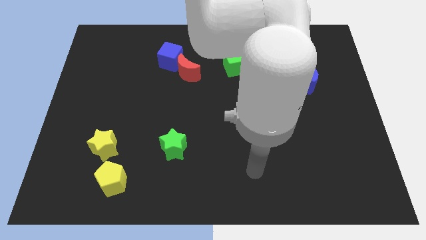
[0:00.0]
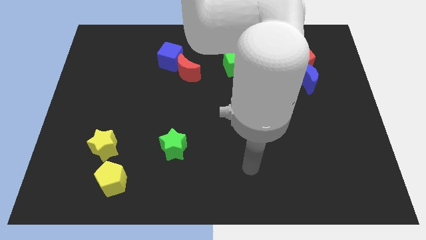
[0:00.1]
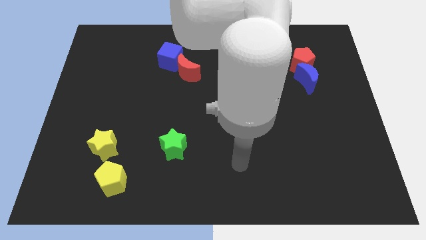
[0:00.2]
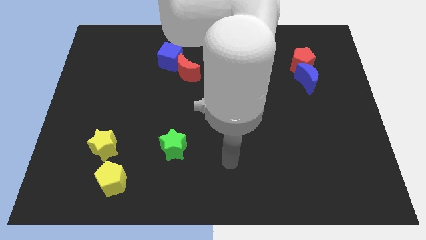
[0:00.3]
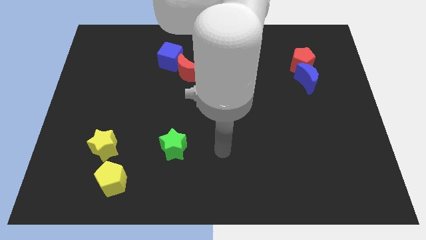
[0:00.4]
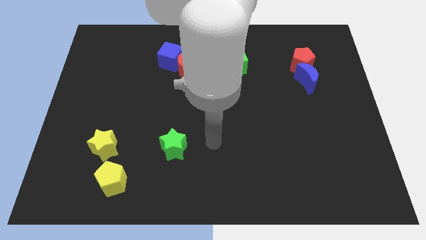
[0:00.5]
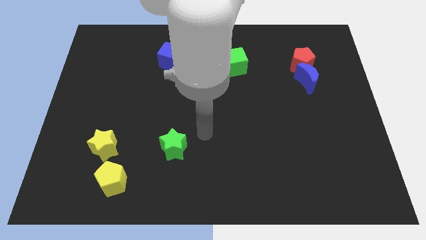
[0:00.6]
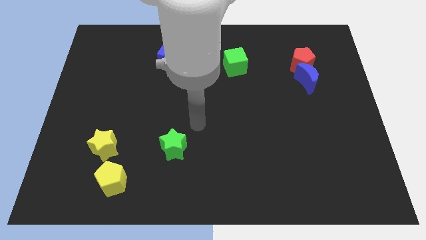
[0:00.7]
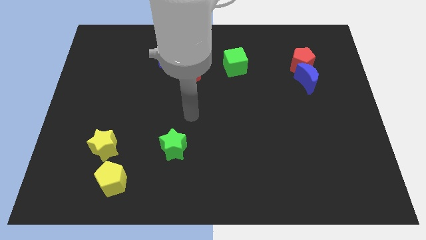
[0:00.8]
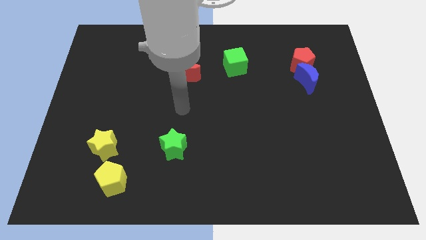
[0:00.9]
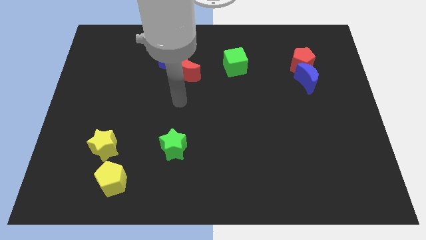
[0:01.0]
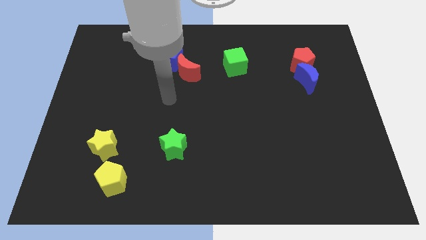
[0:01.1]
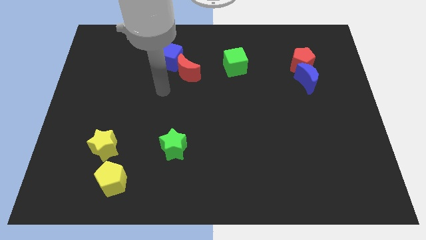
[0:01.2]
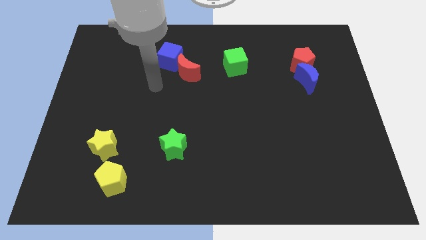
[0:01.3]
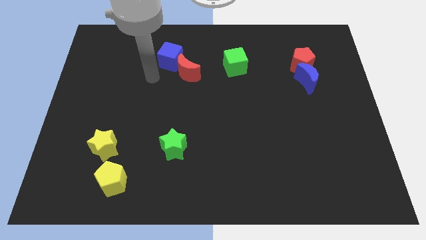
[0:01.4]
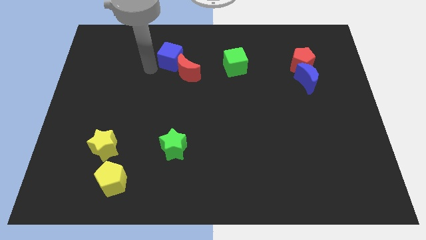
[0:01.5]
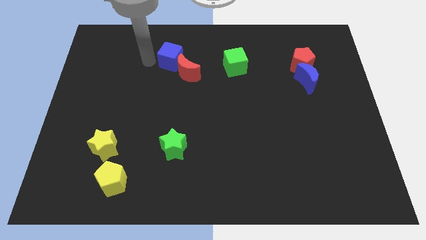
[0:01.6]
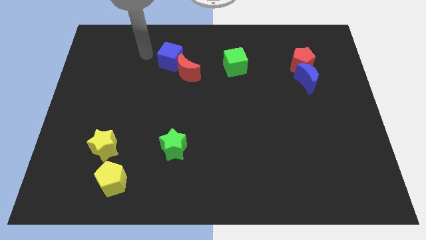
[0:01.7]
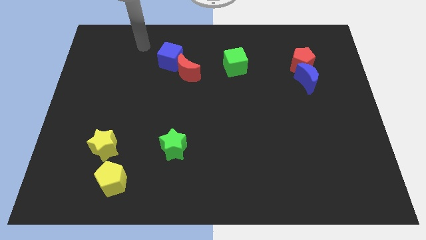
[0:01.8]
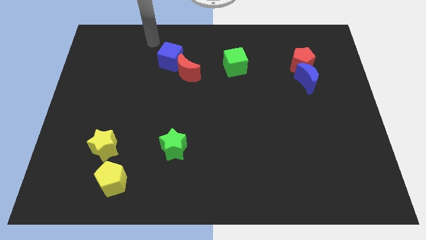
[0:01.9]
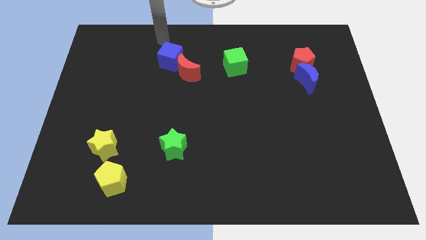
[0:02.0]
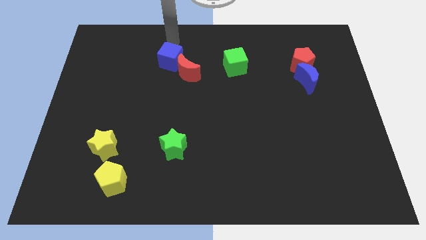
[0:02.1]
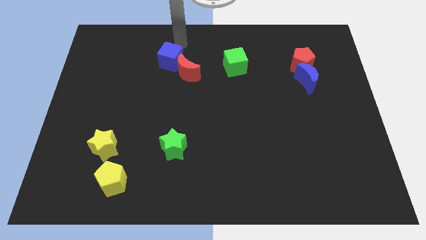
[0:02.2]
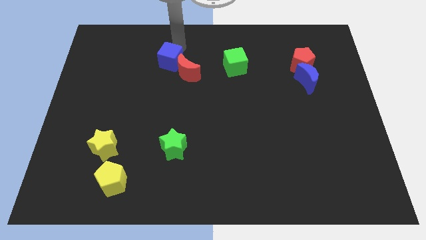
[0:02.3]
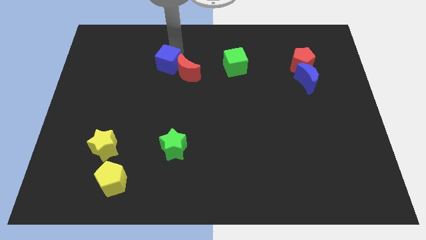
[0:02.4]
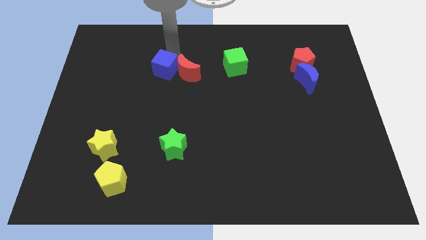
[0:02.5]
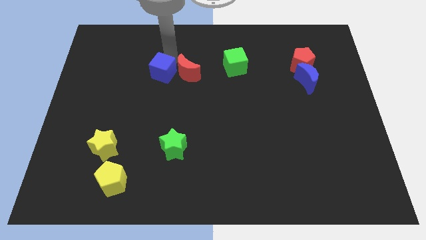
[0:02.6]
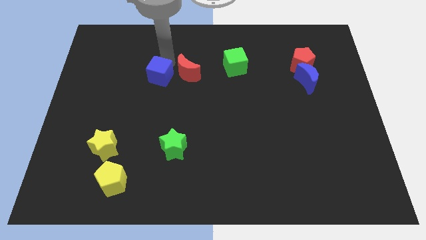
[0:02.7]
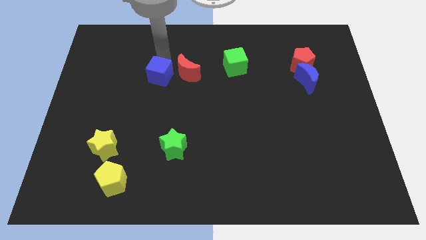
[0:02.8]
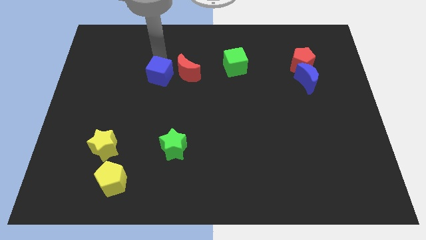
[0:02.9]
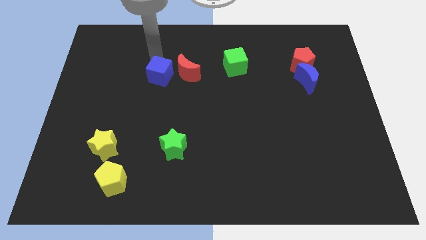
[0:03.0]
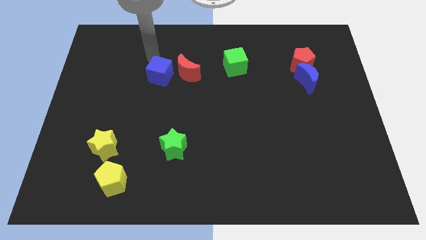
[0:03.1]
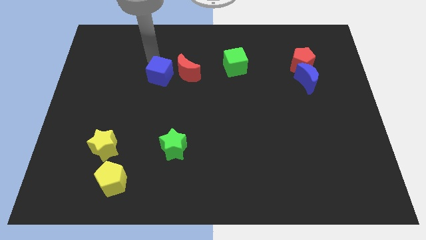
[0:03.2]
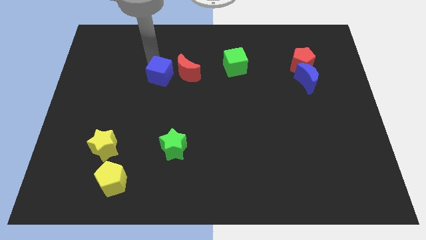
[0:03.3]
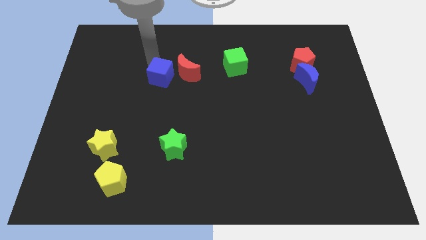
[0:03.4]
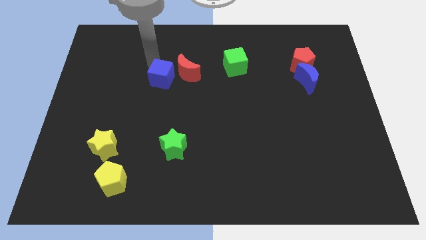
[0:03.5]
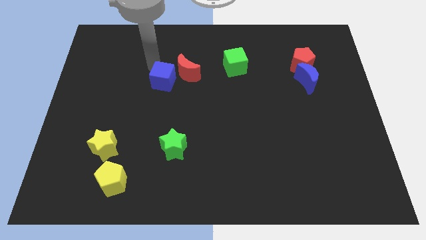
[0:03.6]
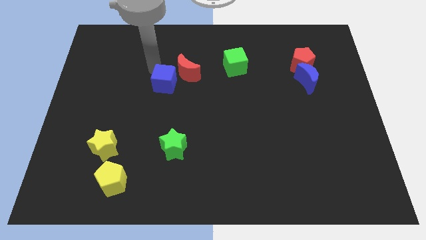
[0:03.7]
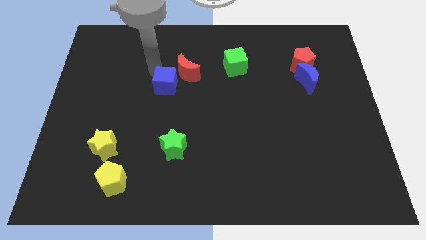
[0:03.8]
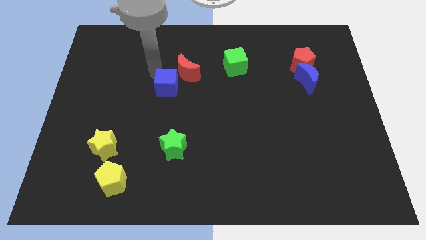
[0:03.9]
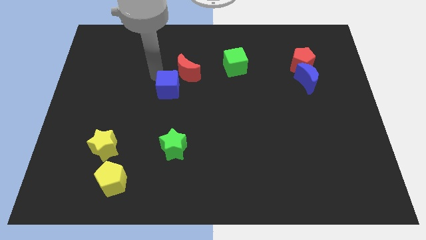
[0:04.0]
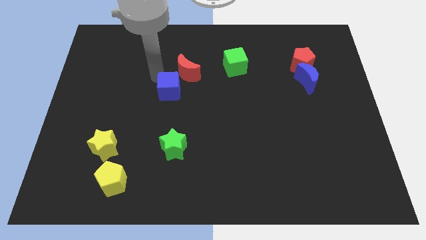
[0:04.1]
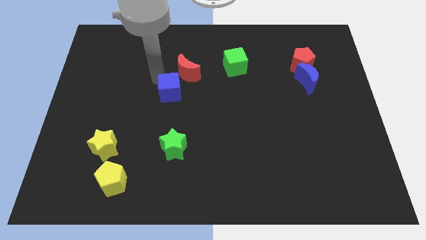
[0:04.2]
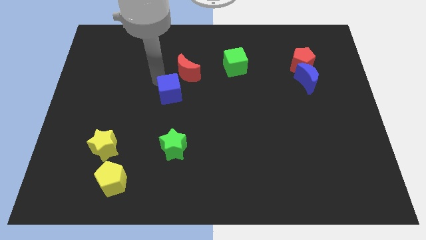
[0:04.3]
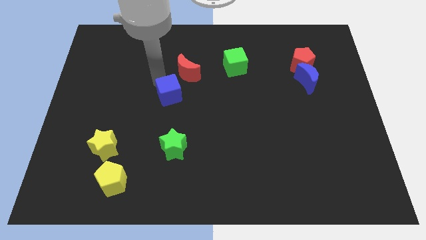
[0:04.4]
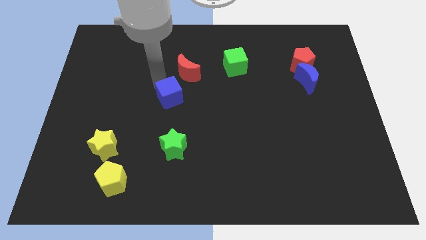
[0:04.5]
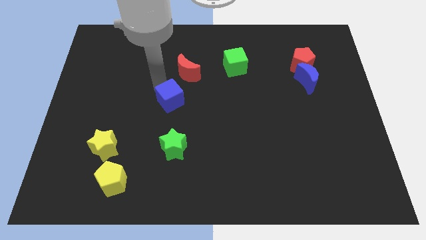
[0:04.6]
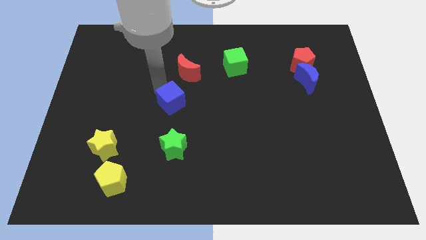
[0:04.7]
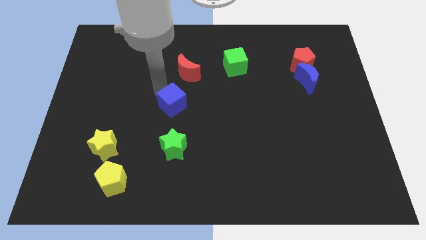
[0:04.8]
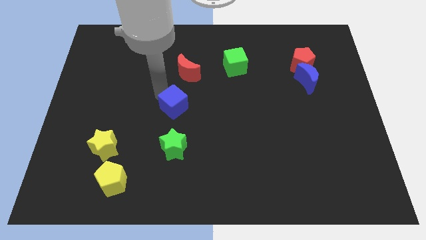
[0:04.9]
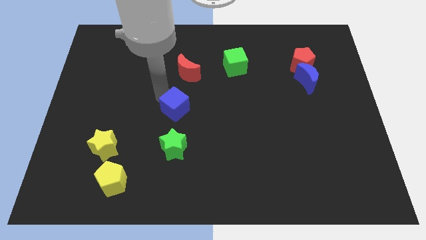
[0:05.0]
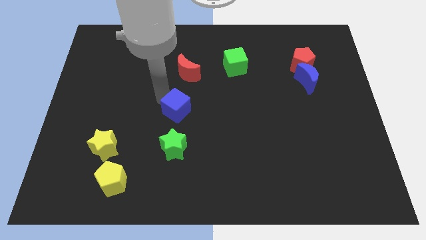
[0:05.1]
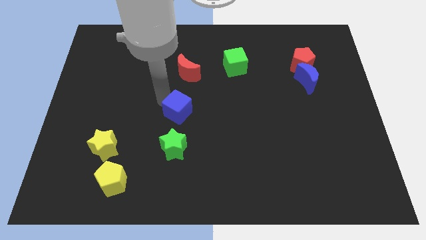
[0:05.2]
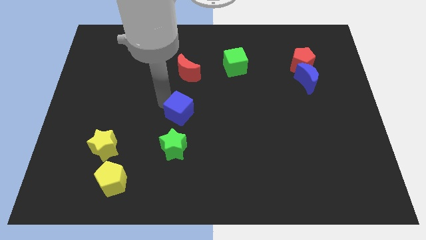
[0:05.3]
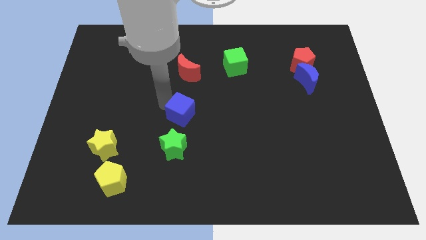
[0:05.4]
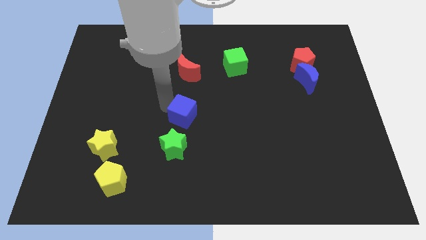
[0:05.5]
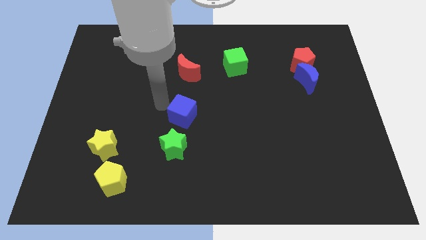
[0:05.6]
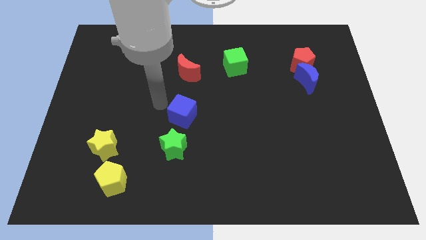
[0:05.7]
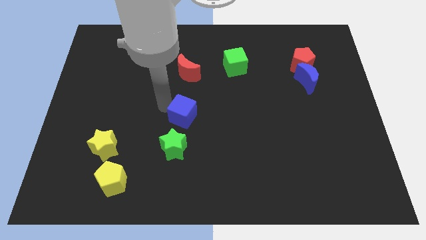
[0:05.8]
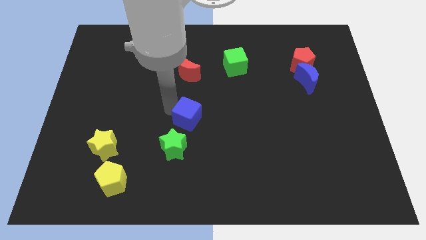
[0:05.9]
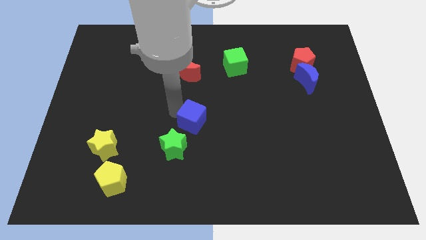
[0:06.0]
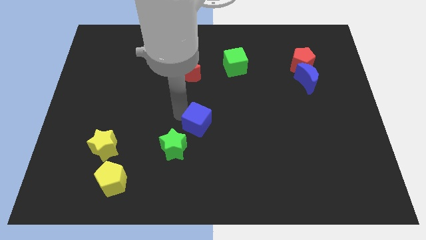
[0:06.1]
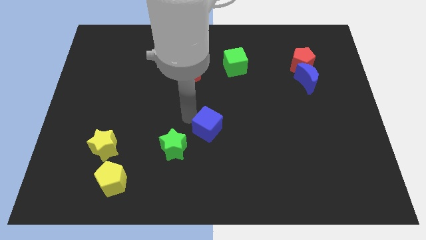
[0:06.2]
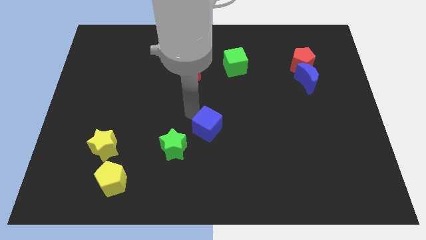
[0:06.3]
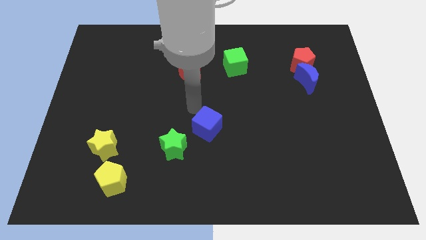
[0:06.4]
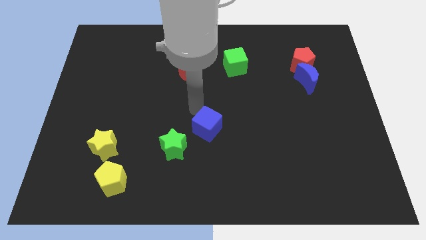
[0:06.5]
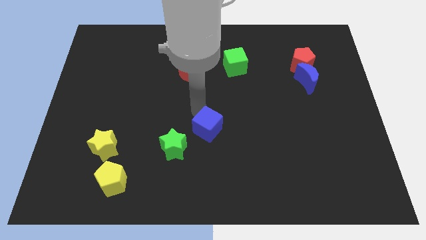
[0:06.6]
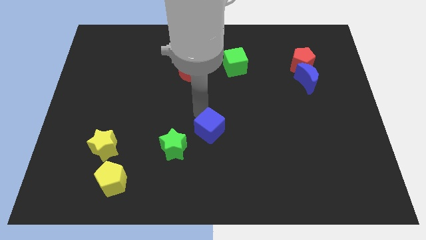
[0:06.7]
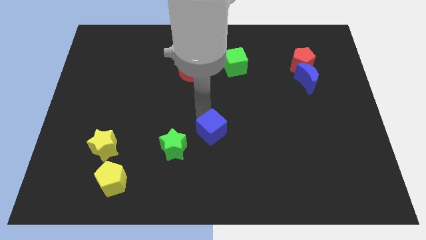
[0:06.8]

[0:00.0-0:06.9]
slide the blue cube right of the green star
